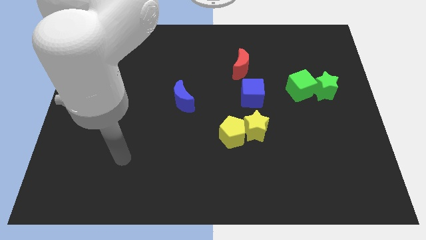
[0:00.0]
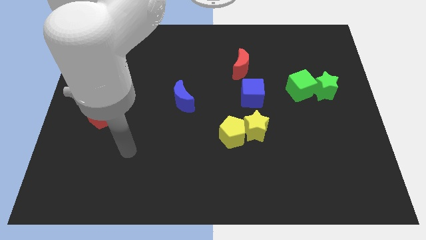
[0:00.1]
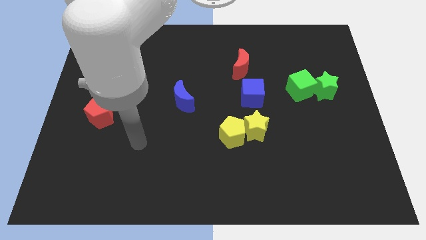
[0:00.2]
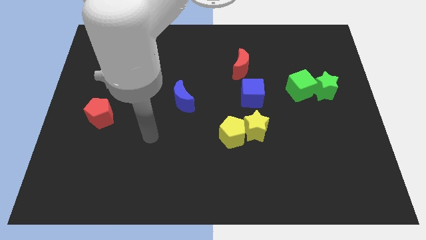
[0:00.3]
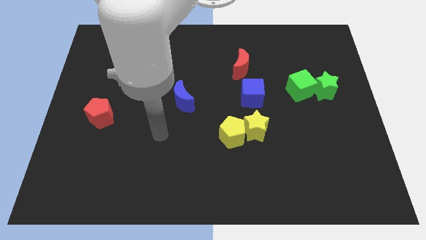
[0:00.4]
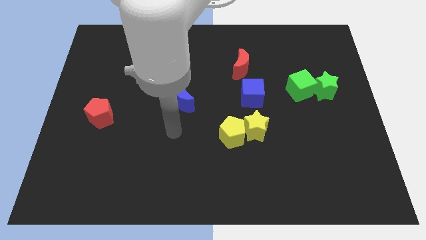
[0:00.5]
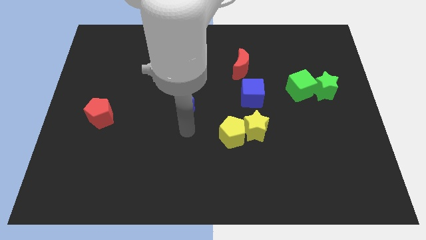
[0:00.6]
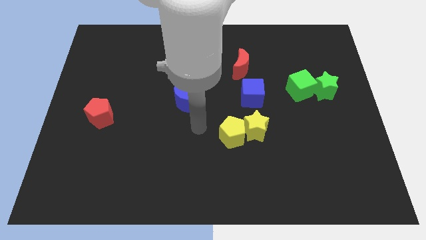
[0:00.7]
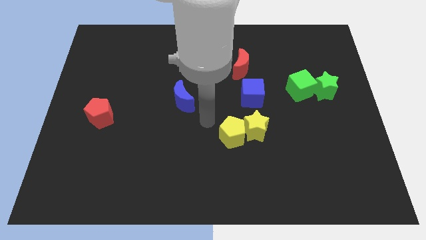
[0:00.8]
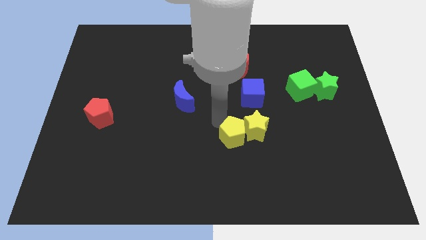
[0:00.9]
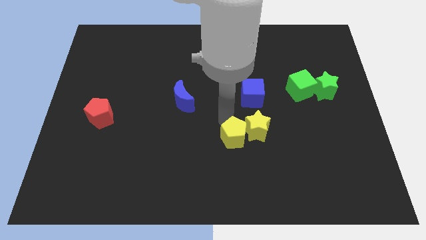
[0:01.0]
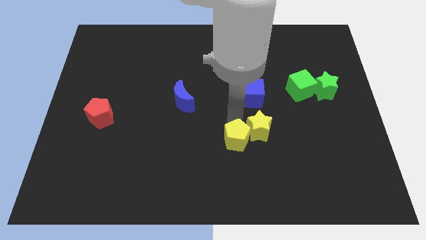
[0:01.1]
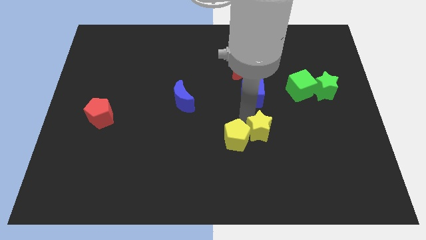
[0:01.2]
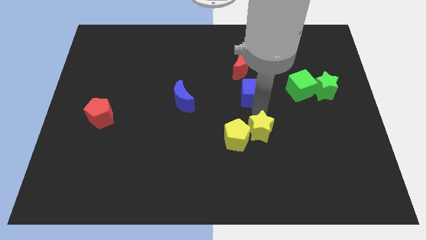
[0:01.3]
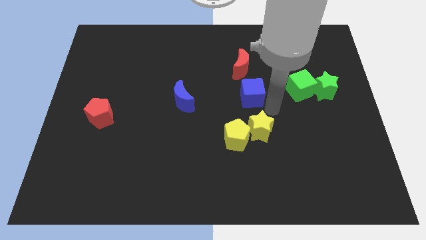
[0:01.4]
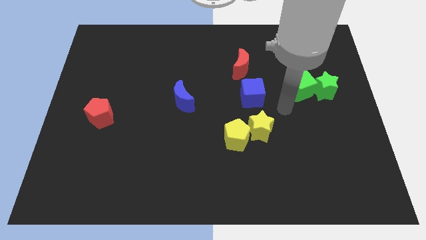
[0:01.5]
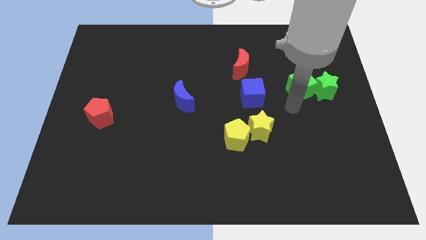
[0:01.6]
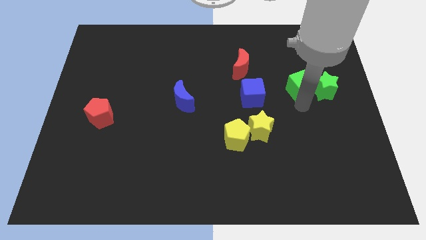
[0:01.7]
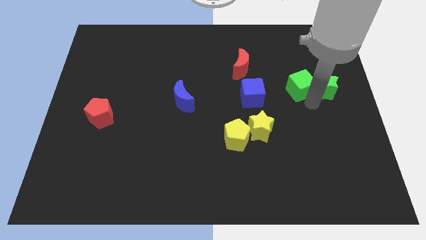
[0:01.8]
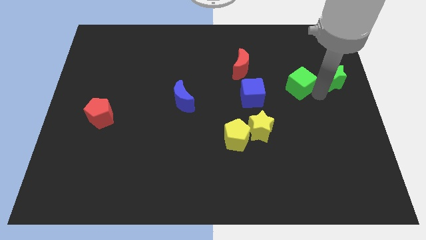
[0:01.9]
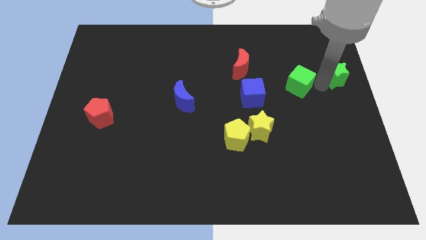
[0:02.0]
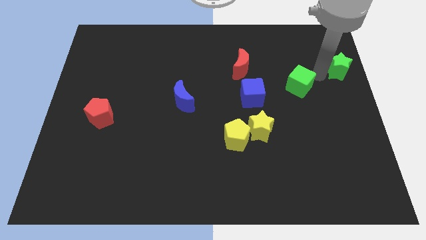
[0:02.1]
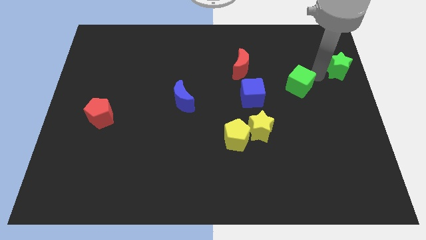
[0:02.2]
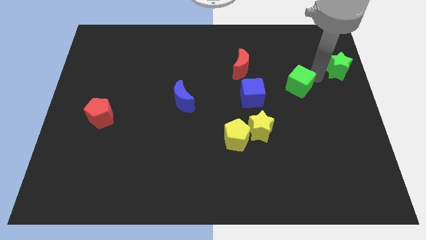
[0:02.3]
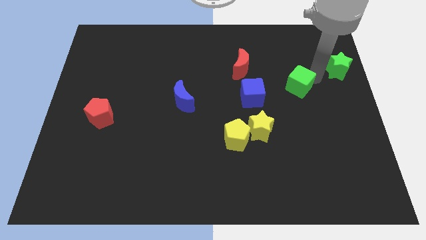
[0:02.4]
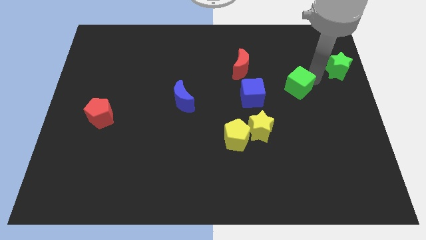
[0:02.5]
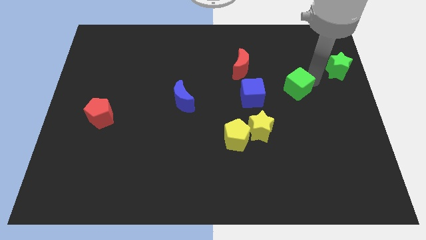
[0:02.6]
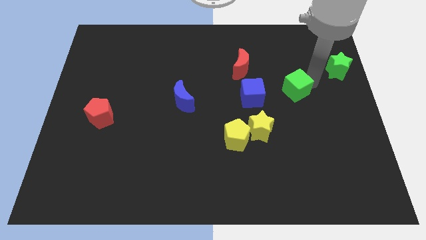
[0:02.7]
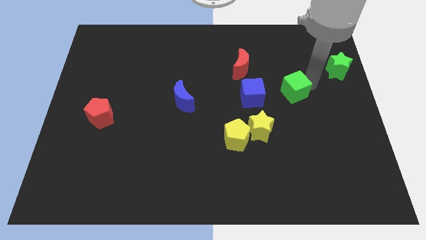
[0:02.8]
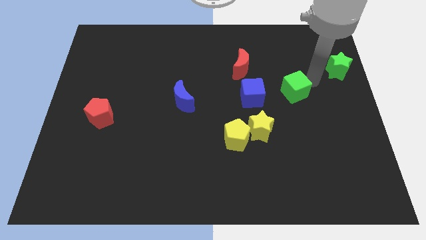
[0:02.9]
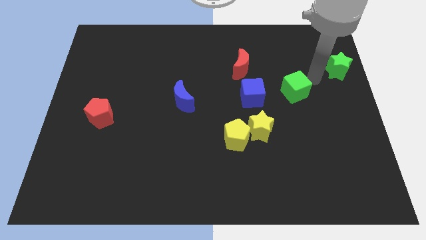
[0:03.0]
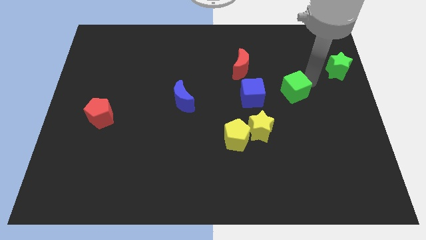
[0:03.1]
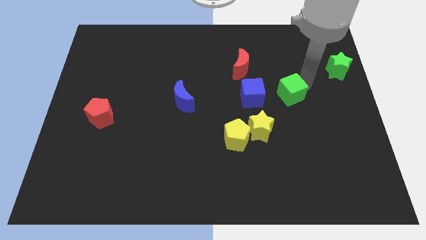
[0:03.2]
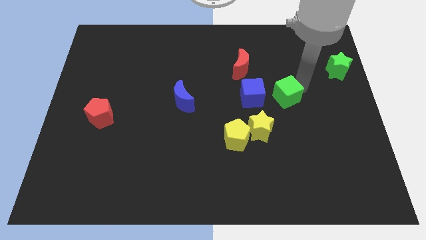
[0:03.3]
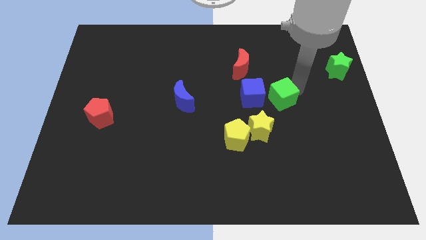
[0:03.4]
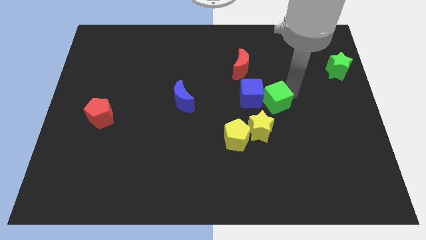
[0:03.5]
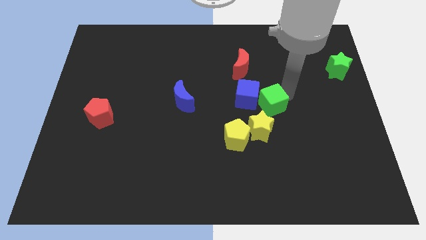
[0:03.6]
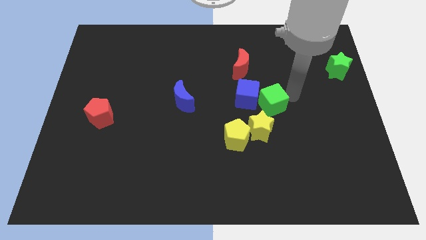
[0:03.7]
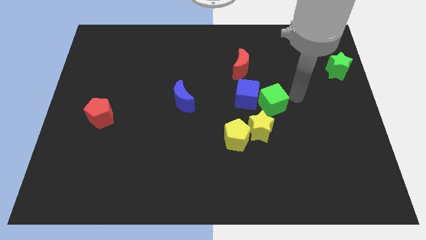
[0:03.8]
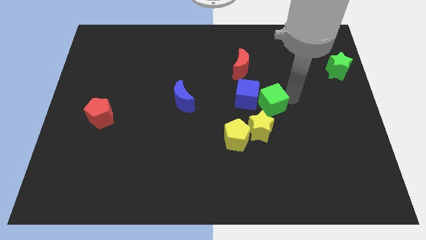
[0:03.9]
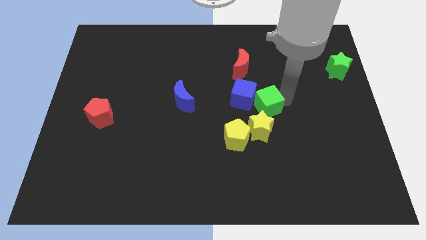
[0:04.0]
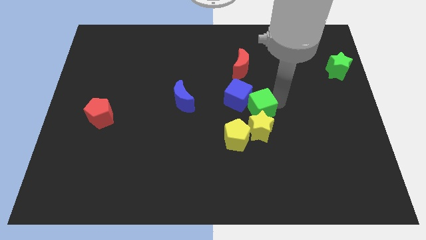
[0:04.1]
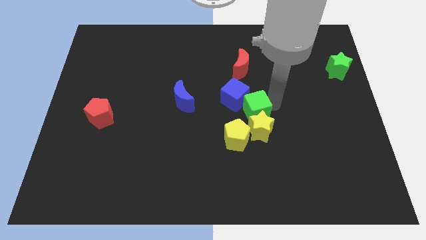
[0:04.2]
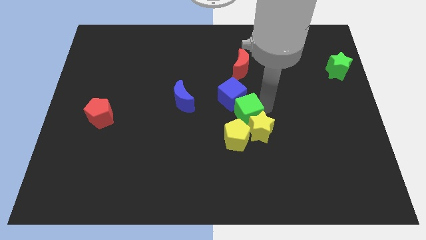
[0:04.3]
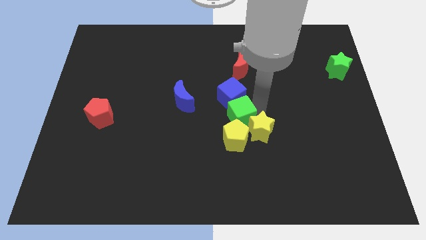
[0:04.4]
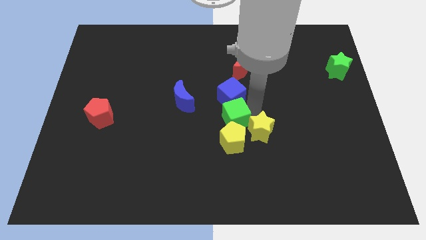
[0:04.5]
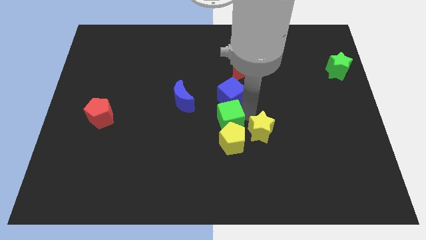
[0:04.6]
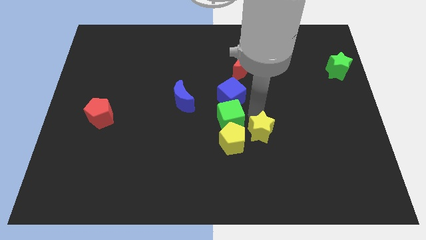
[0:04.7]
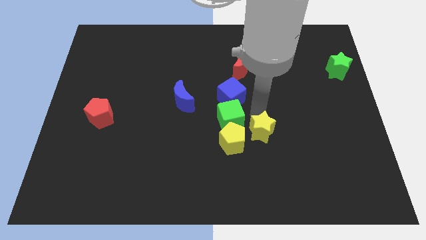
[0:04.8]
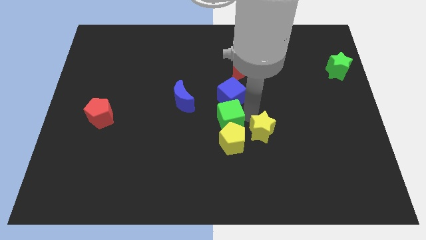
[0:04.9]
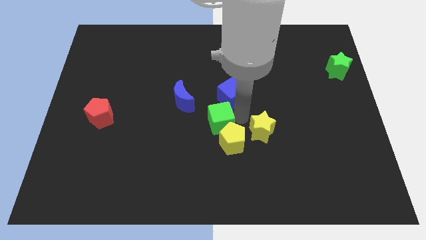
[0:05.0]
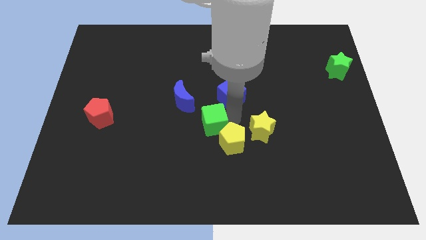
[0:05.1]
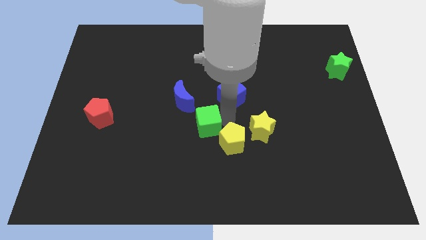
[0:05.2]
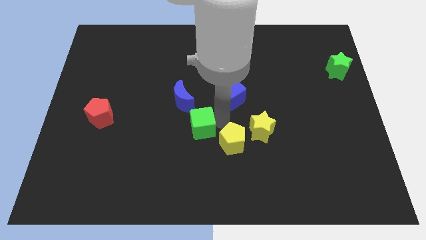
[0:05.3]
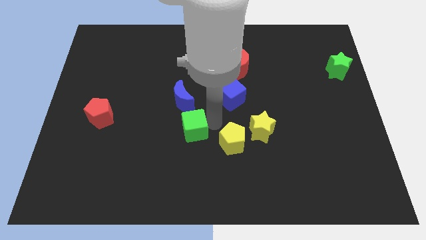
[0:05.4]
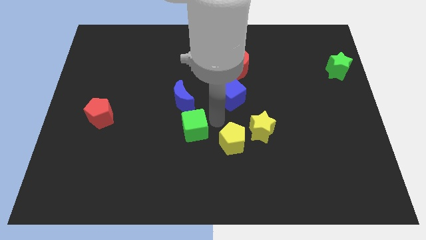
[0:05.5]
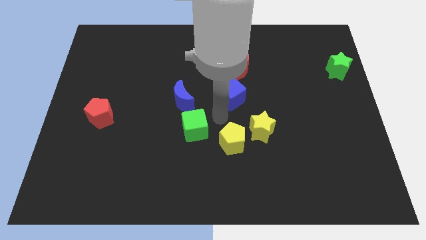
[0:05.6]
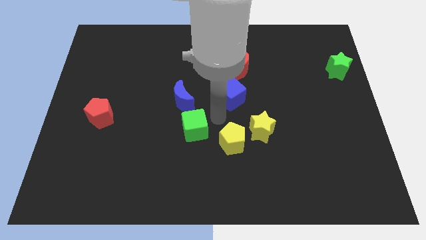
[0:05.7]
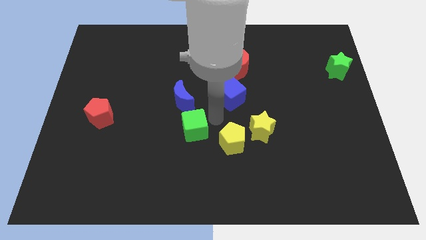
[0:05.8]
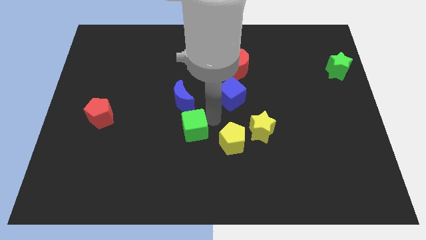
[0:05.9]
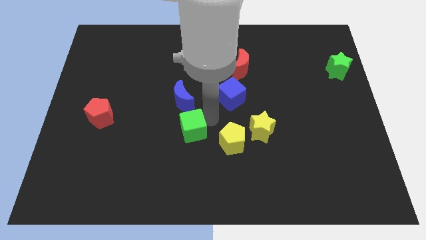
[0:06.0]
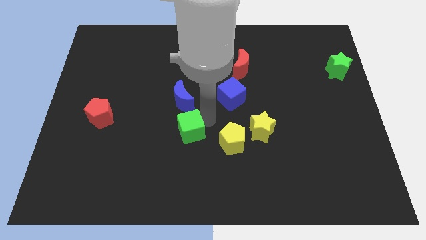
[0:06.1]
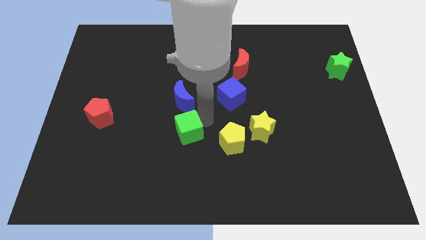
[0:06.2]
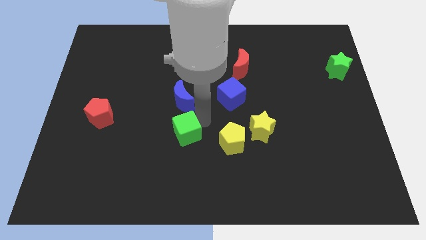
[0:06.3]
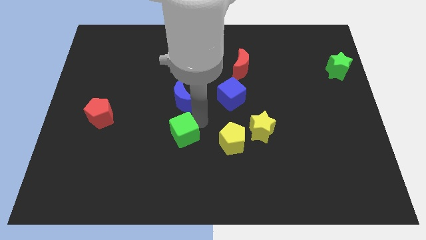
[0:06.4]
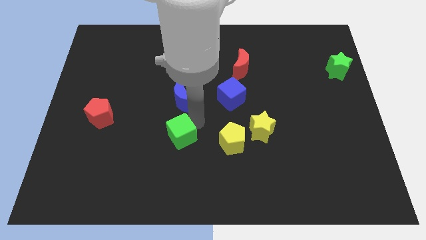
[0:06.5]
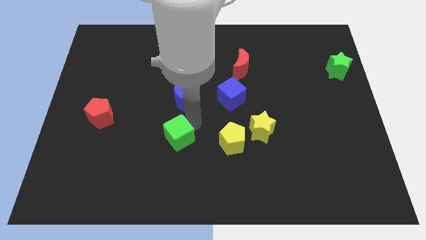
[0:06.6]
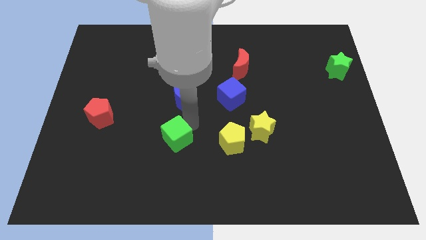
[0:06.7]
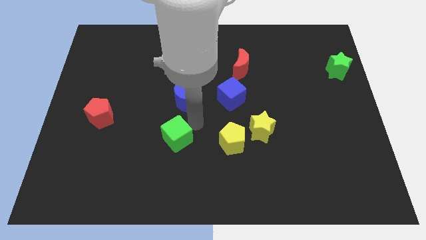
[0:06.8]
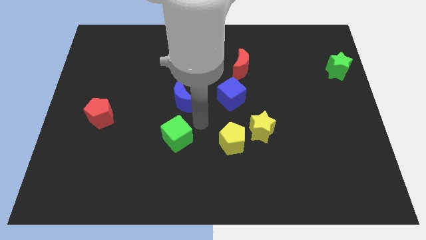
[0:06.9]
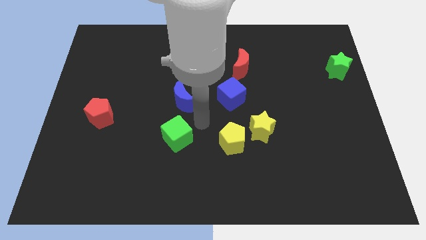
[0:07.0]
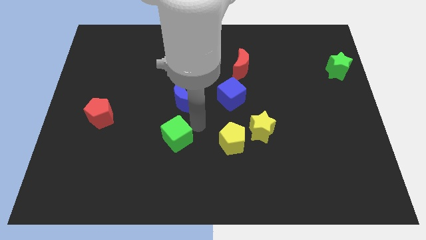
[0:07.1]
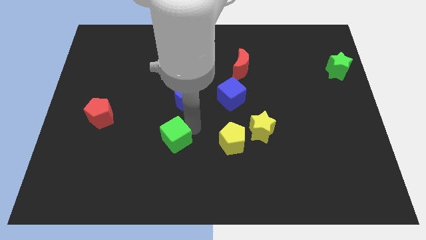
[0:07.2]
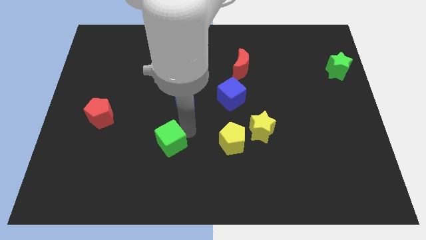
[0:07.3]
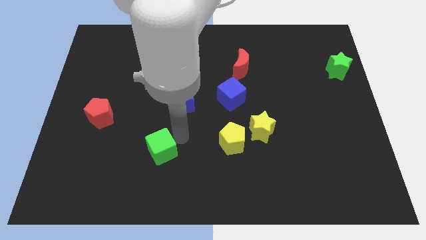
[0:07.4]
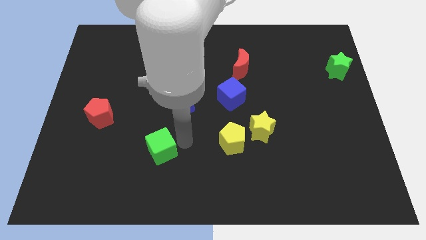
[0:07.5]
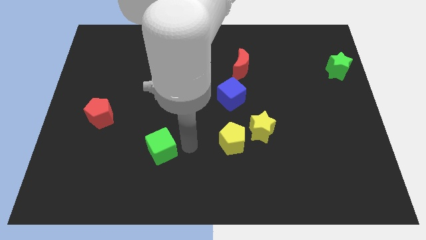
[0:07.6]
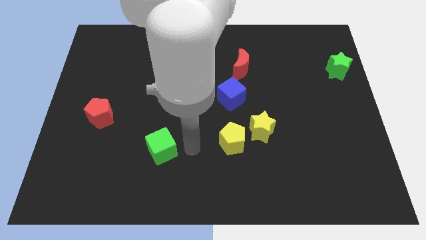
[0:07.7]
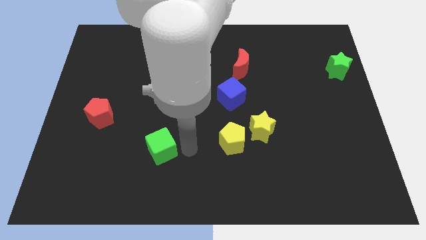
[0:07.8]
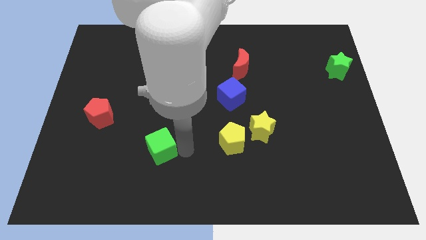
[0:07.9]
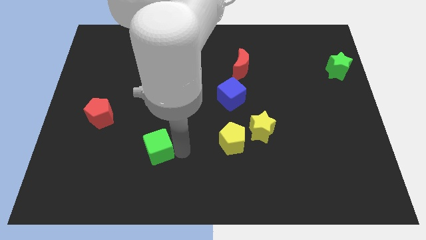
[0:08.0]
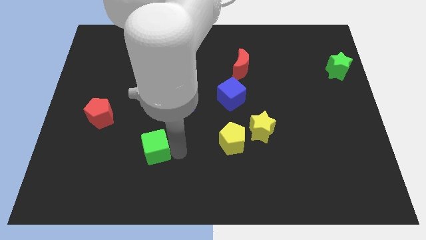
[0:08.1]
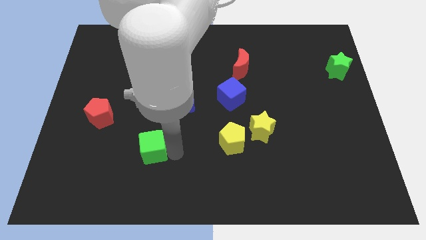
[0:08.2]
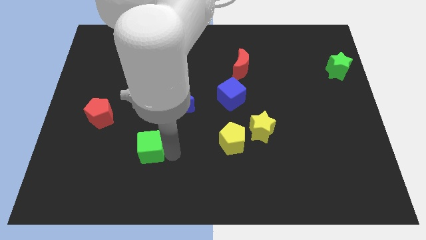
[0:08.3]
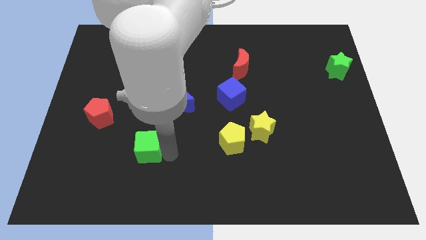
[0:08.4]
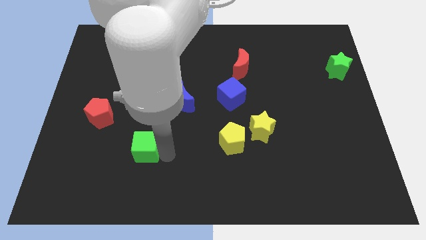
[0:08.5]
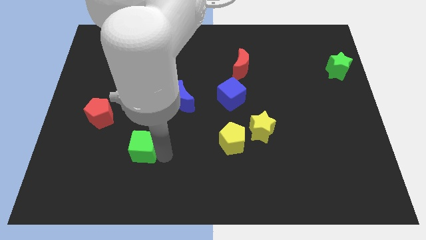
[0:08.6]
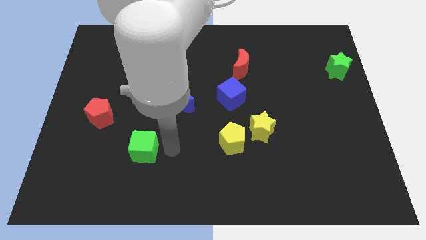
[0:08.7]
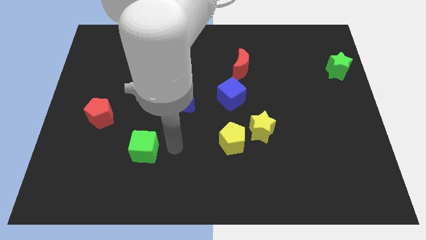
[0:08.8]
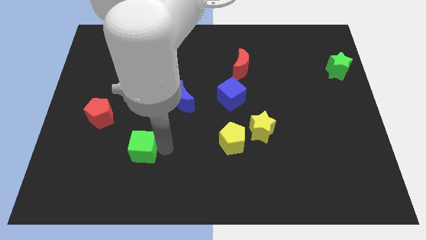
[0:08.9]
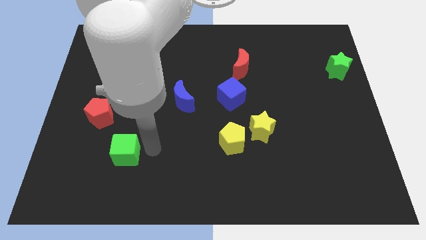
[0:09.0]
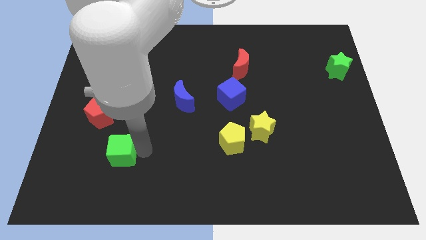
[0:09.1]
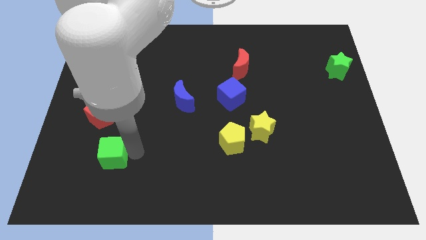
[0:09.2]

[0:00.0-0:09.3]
put the green cube to the bottom side of the red pentagon
